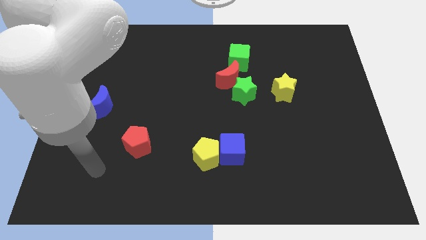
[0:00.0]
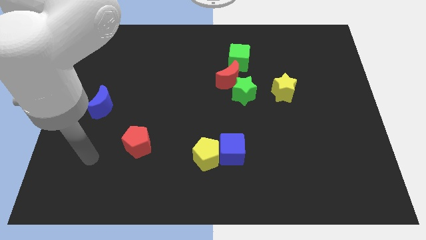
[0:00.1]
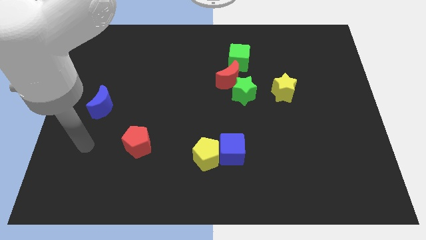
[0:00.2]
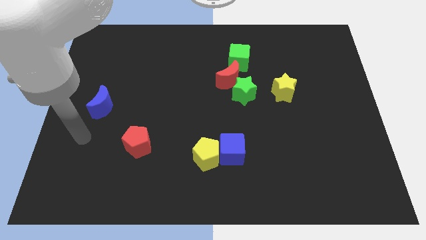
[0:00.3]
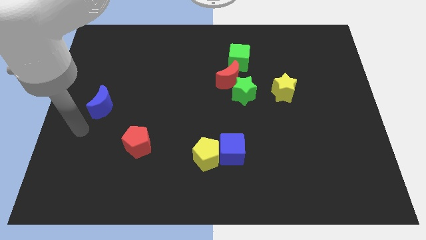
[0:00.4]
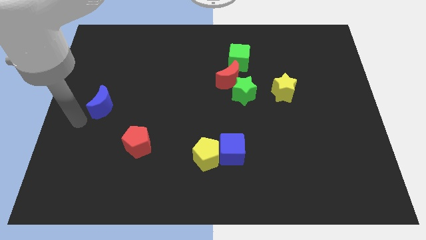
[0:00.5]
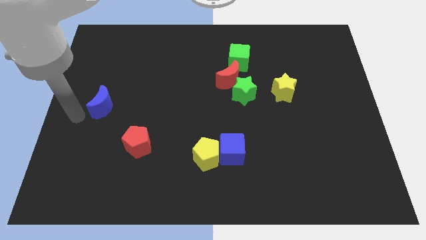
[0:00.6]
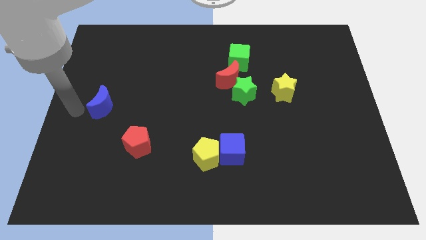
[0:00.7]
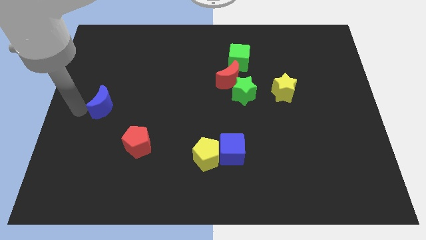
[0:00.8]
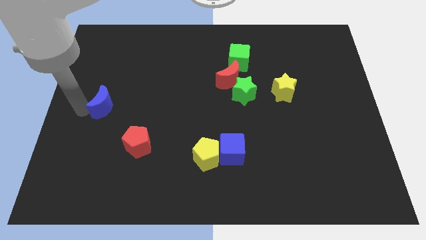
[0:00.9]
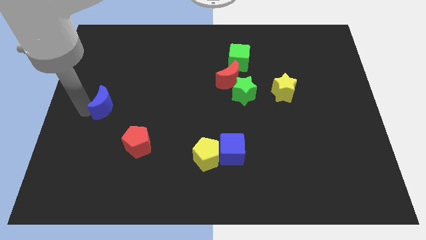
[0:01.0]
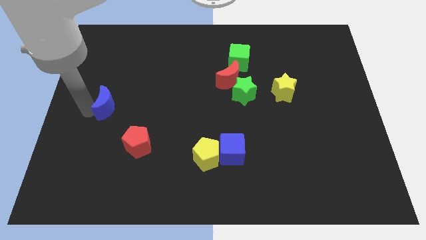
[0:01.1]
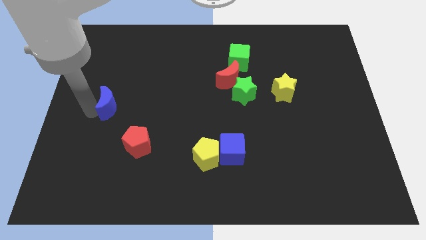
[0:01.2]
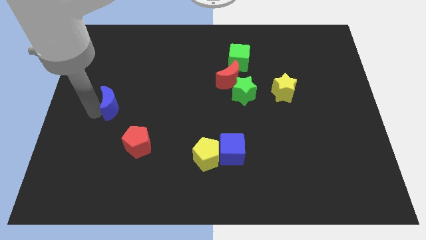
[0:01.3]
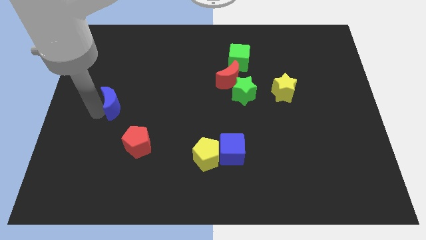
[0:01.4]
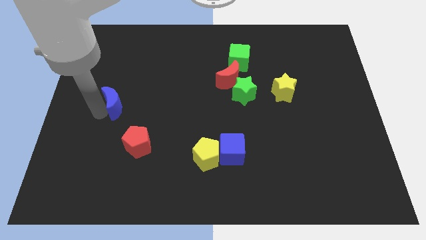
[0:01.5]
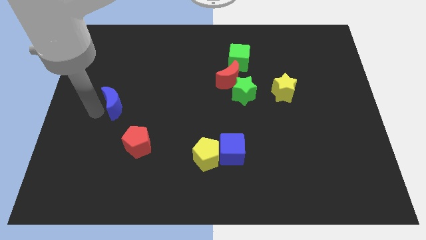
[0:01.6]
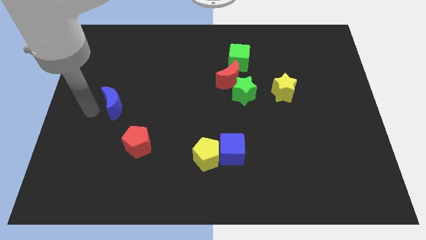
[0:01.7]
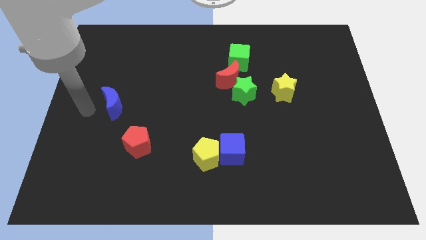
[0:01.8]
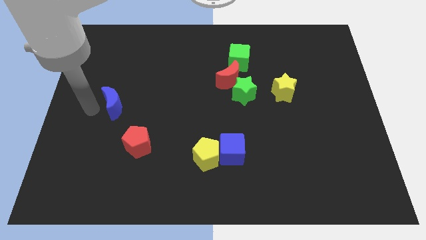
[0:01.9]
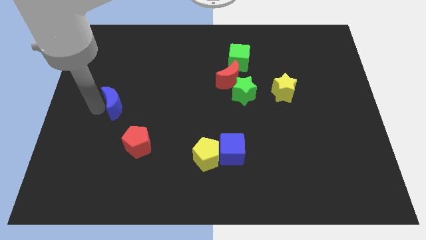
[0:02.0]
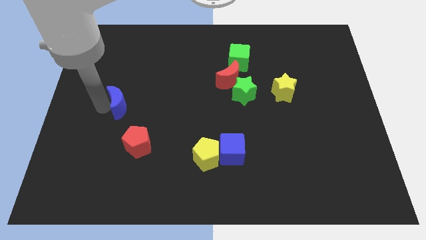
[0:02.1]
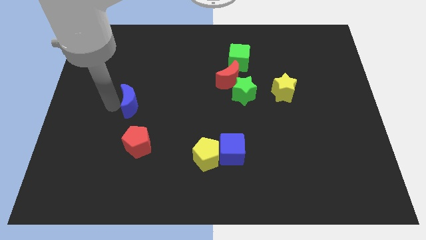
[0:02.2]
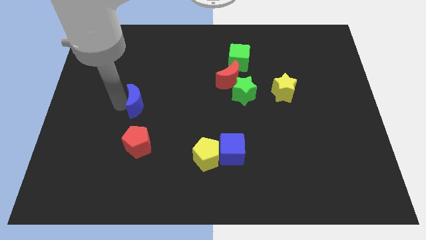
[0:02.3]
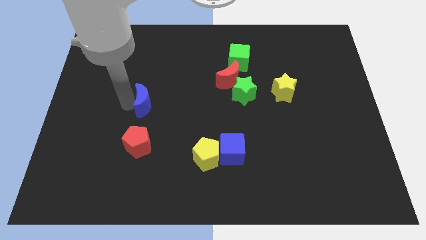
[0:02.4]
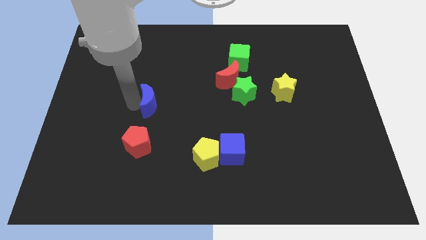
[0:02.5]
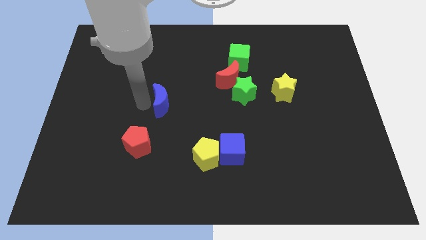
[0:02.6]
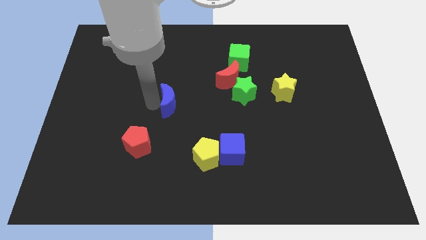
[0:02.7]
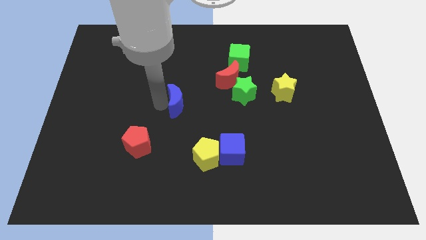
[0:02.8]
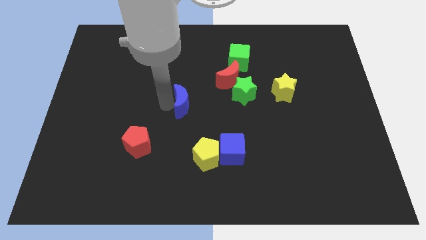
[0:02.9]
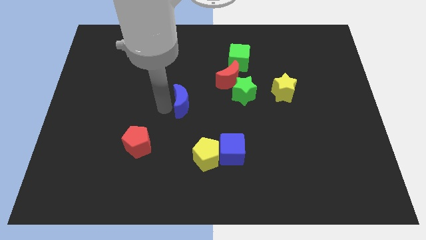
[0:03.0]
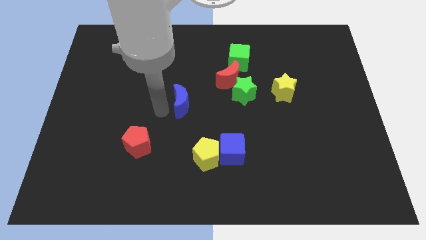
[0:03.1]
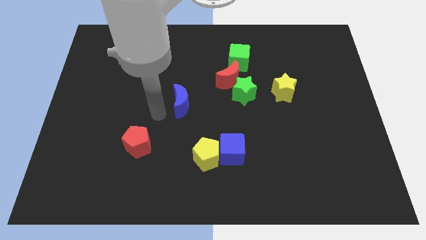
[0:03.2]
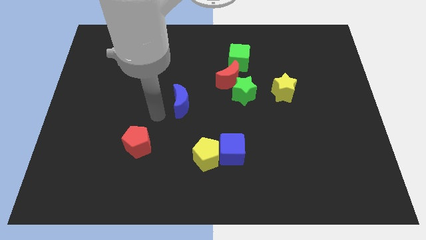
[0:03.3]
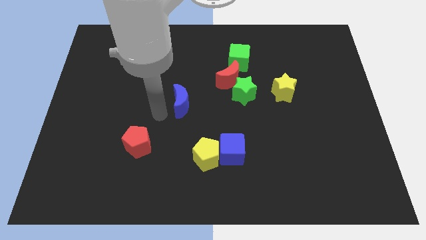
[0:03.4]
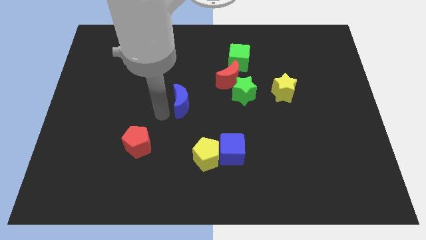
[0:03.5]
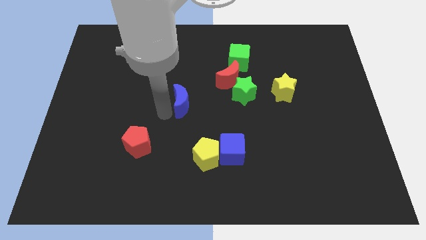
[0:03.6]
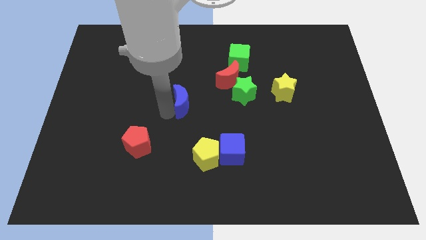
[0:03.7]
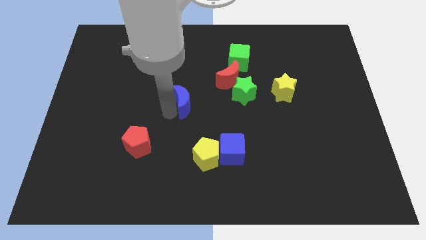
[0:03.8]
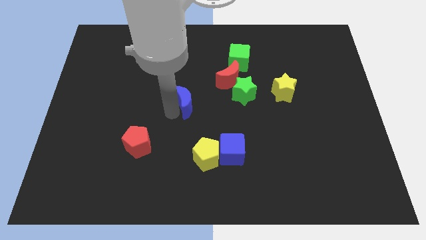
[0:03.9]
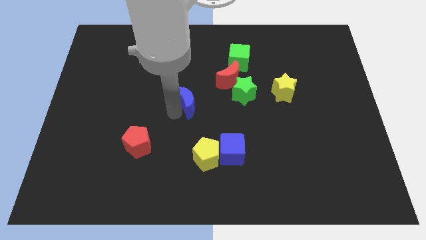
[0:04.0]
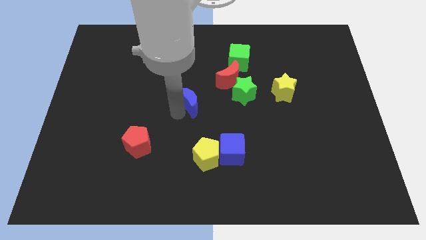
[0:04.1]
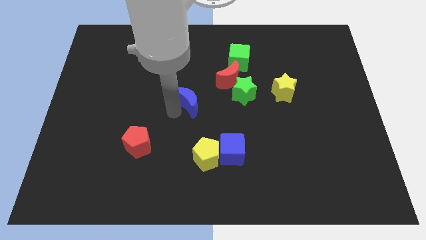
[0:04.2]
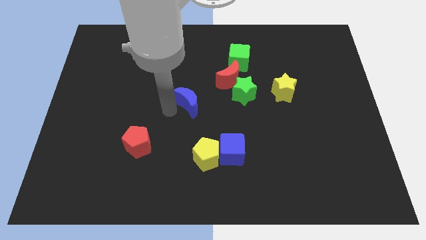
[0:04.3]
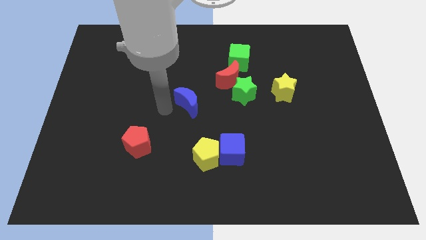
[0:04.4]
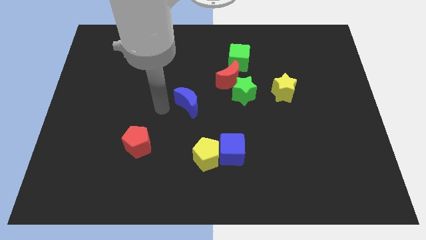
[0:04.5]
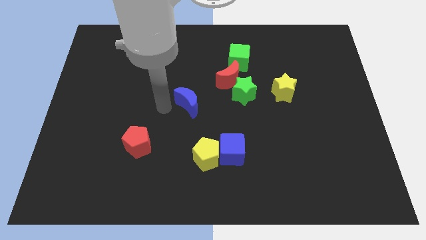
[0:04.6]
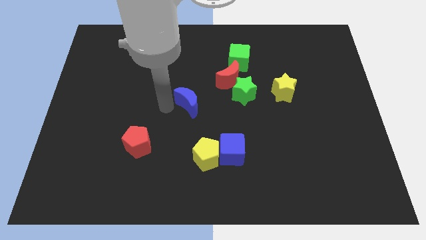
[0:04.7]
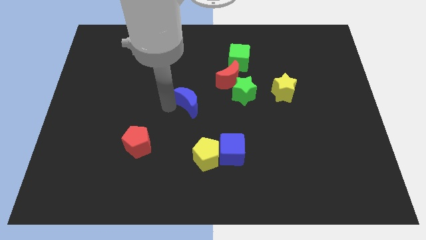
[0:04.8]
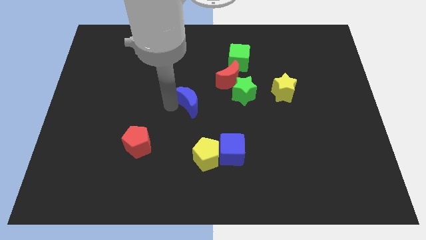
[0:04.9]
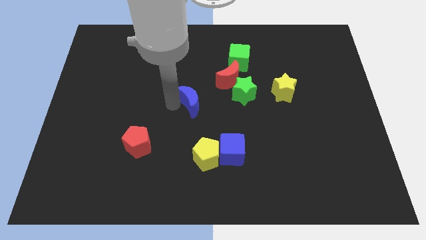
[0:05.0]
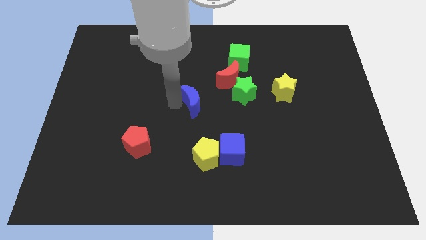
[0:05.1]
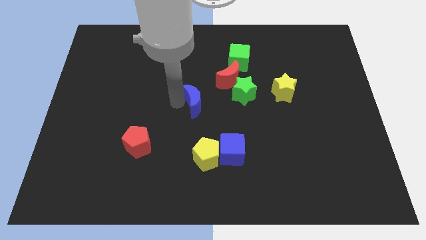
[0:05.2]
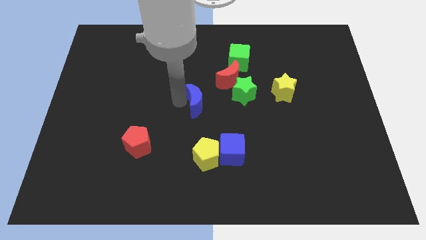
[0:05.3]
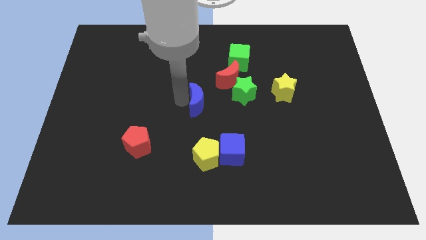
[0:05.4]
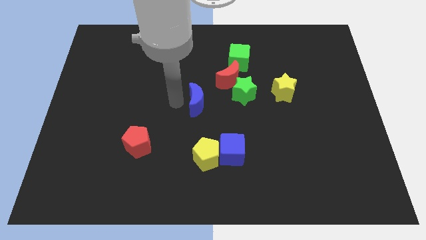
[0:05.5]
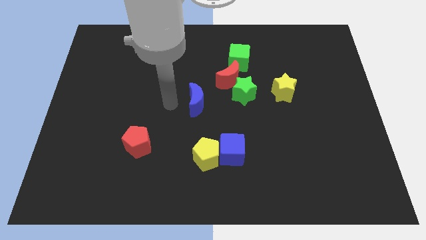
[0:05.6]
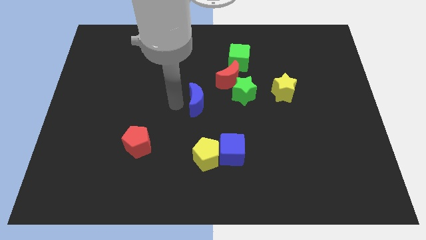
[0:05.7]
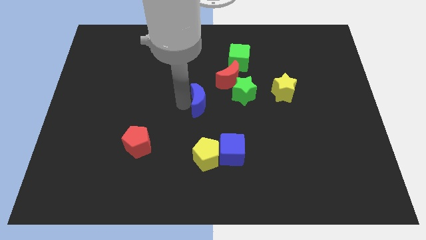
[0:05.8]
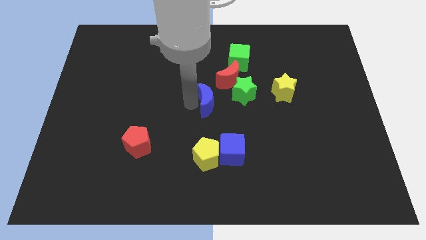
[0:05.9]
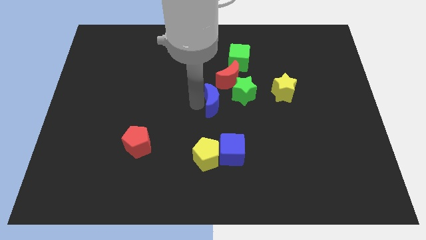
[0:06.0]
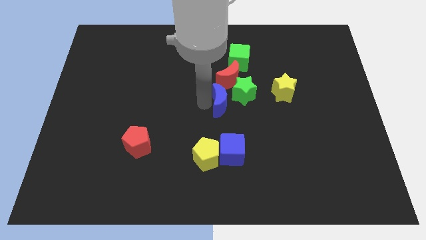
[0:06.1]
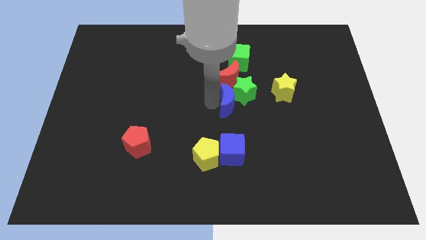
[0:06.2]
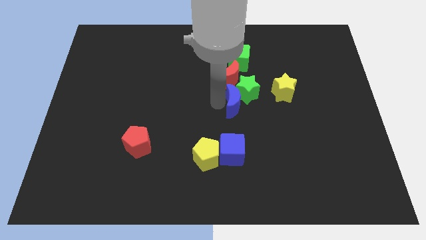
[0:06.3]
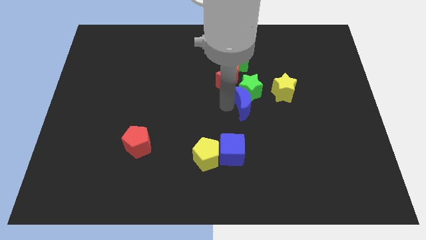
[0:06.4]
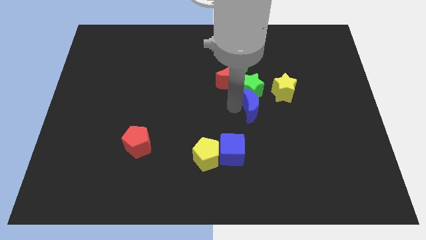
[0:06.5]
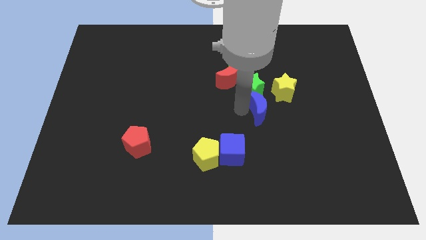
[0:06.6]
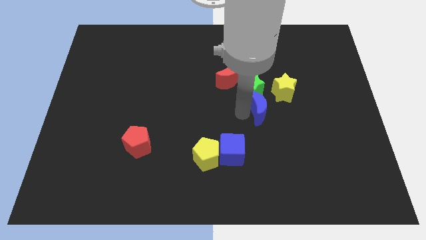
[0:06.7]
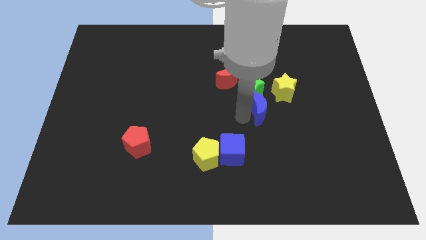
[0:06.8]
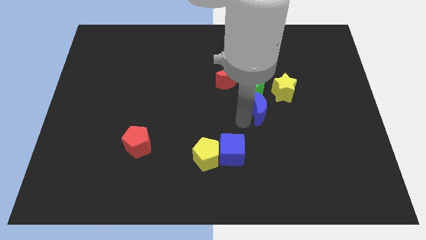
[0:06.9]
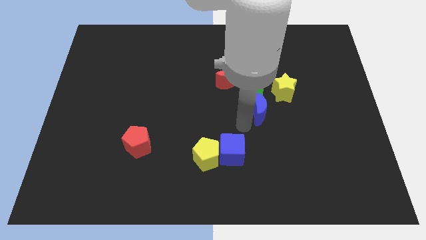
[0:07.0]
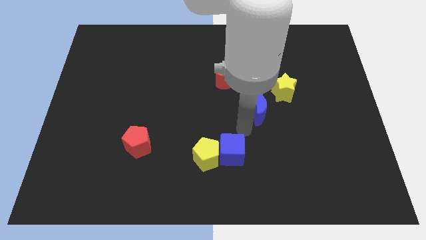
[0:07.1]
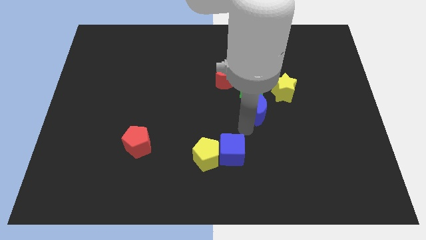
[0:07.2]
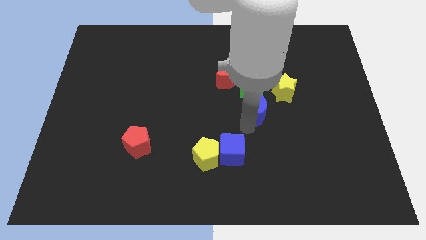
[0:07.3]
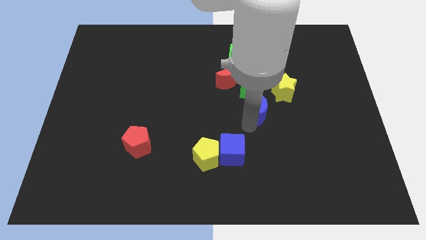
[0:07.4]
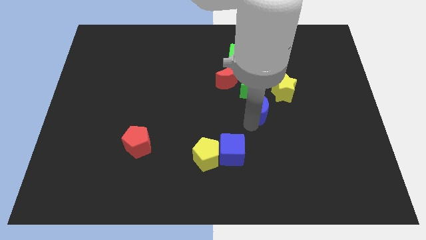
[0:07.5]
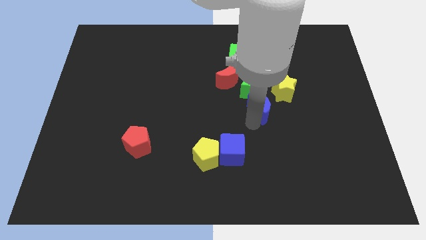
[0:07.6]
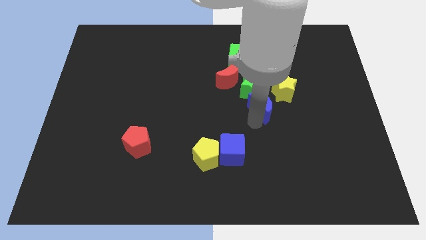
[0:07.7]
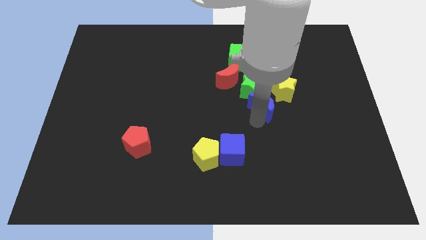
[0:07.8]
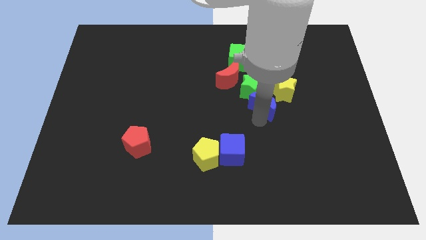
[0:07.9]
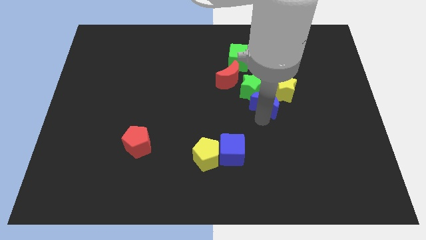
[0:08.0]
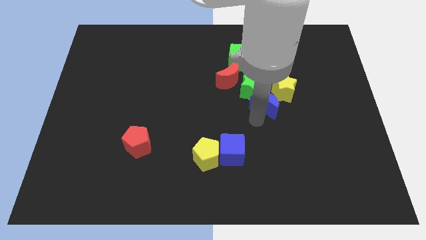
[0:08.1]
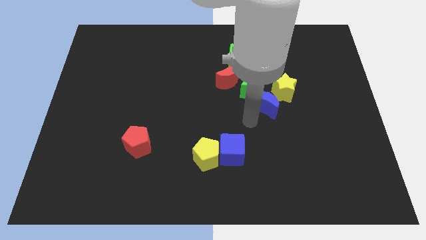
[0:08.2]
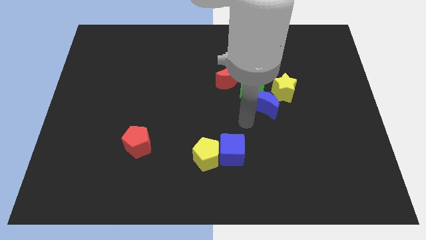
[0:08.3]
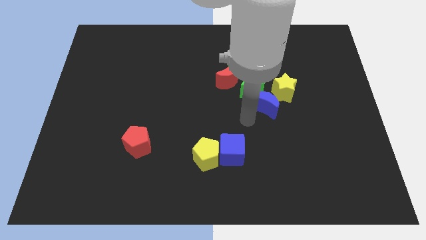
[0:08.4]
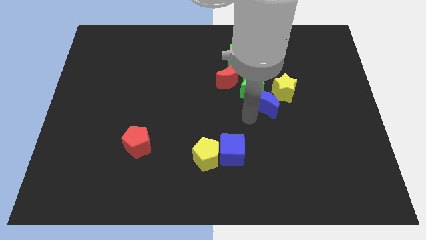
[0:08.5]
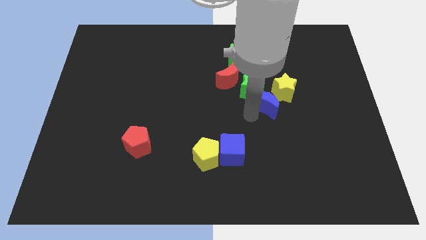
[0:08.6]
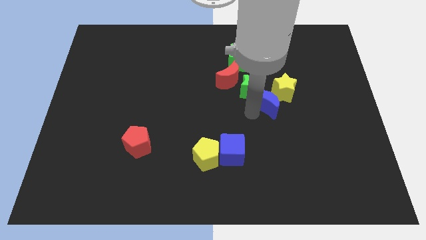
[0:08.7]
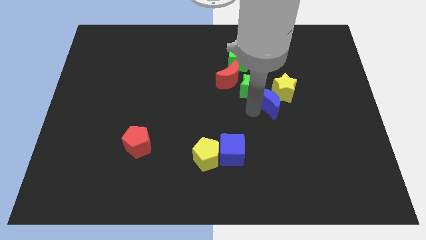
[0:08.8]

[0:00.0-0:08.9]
slide the blue moon next to the yellow star
